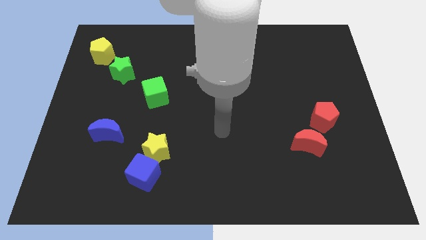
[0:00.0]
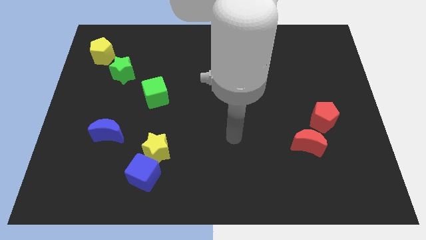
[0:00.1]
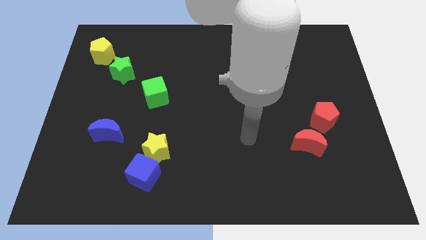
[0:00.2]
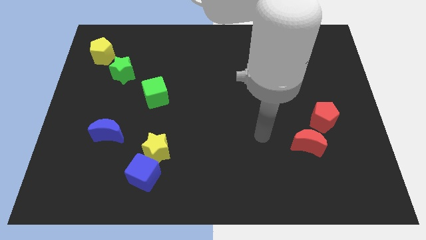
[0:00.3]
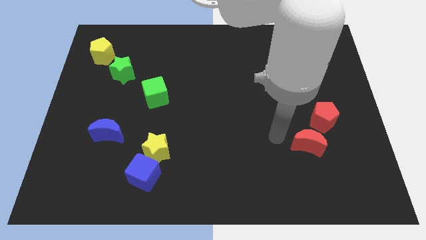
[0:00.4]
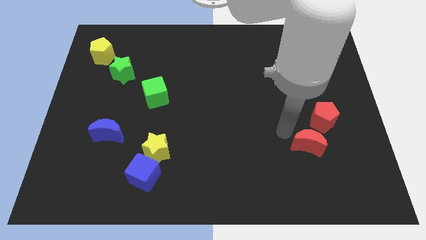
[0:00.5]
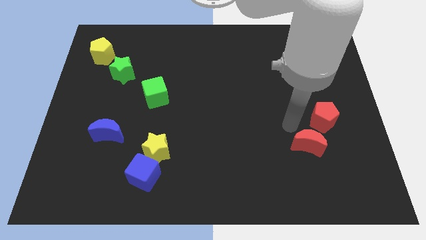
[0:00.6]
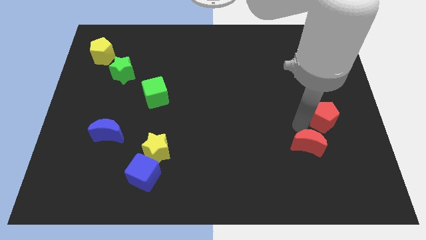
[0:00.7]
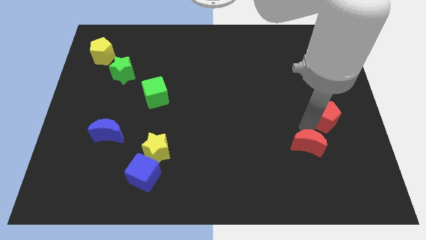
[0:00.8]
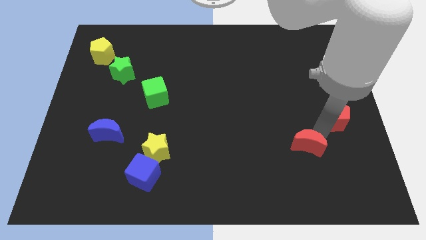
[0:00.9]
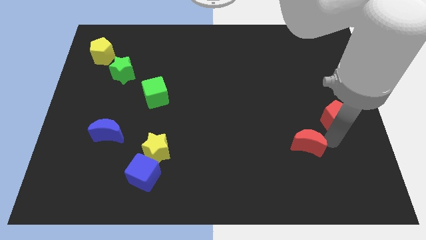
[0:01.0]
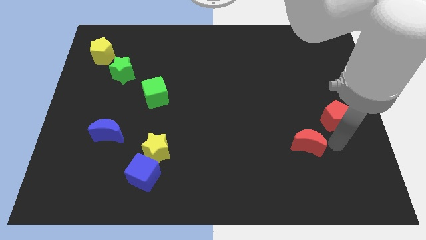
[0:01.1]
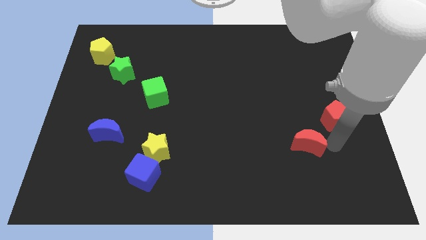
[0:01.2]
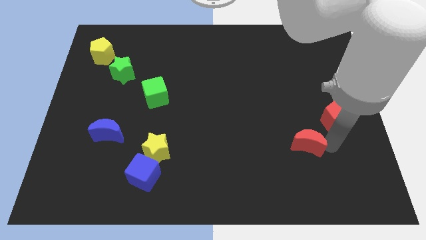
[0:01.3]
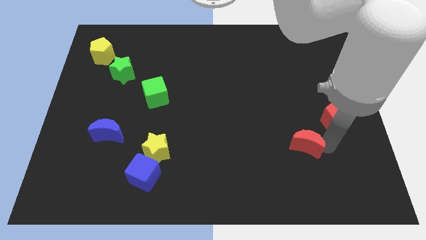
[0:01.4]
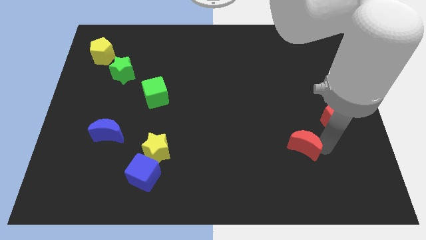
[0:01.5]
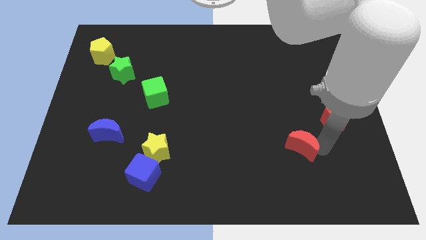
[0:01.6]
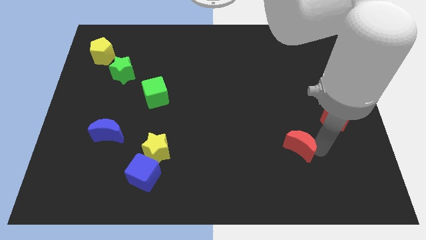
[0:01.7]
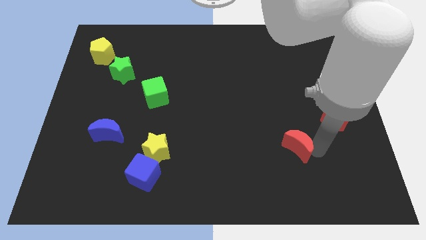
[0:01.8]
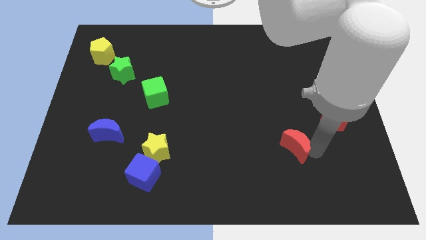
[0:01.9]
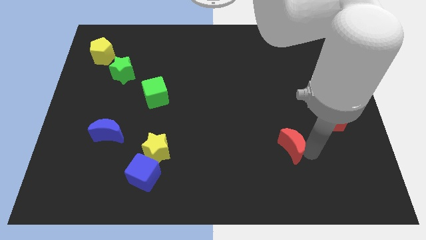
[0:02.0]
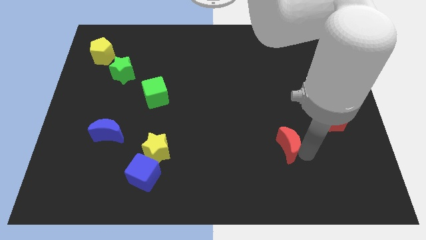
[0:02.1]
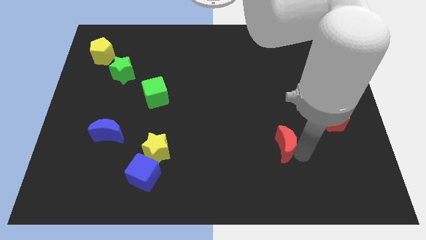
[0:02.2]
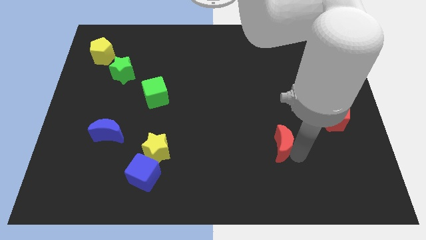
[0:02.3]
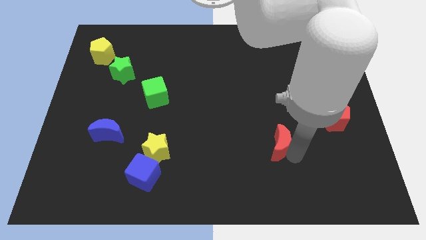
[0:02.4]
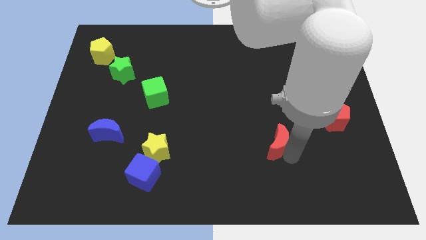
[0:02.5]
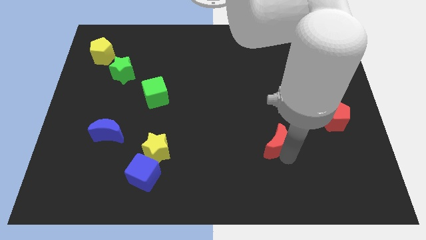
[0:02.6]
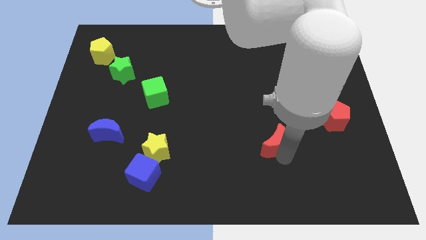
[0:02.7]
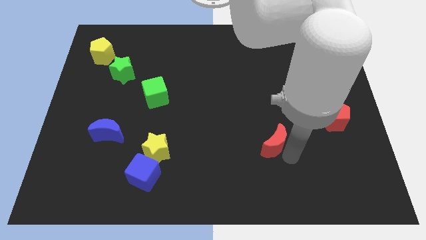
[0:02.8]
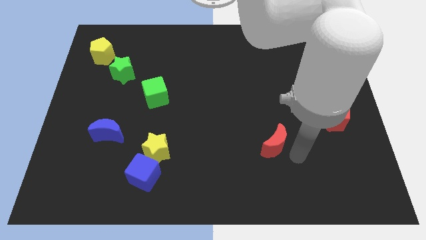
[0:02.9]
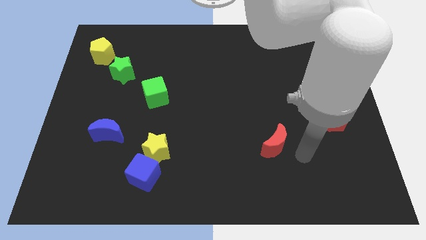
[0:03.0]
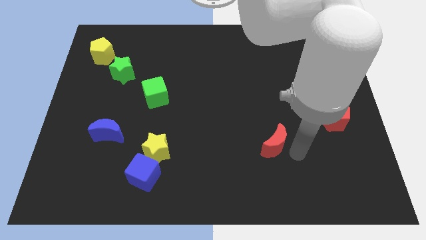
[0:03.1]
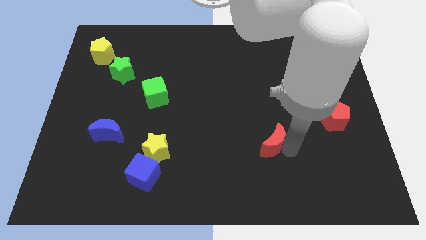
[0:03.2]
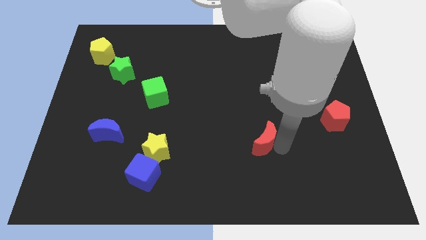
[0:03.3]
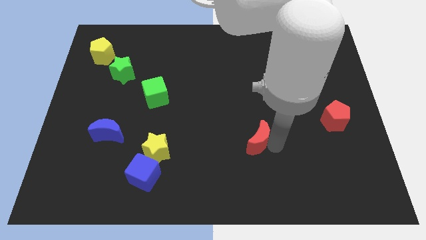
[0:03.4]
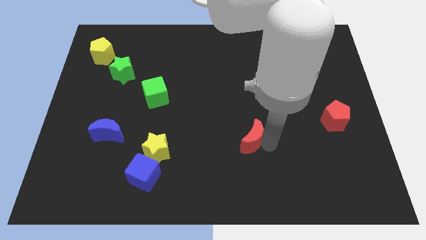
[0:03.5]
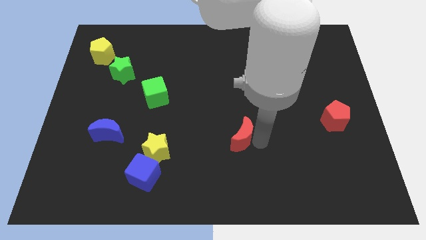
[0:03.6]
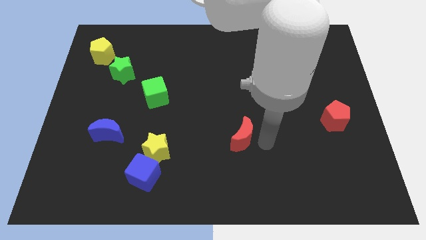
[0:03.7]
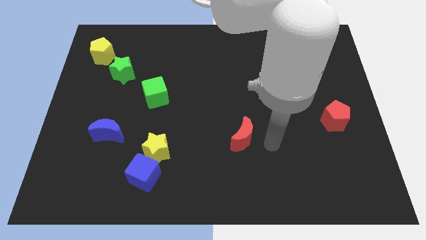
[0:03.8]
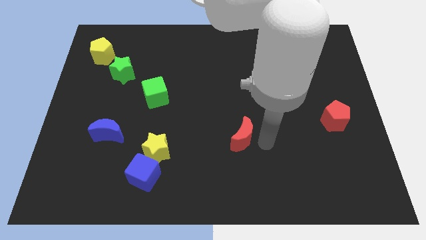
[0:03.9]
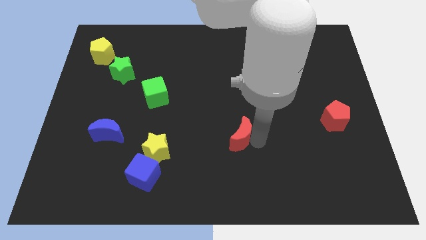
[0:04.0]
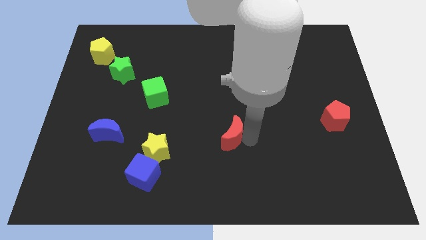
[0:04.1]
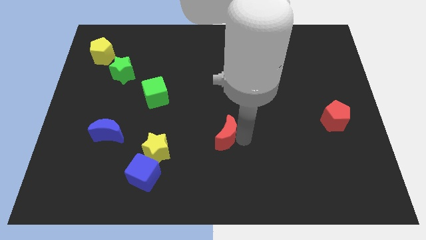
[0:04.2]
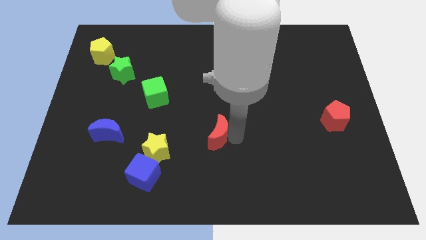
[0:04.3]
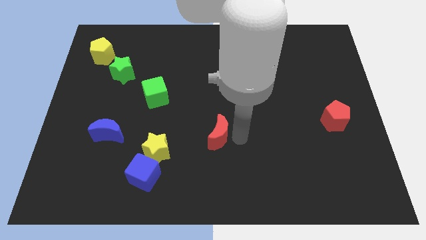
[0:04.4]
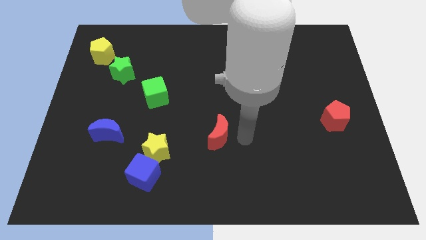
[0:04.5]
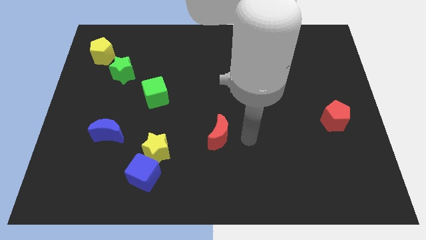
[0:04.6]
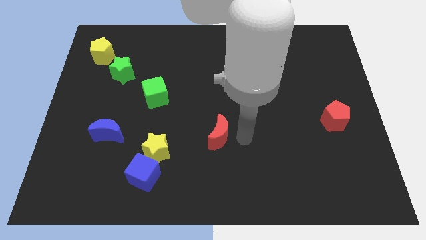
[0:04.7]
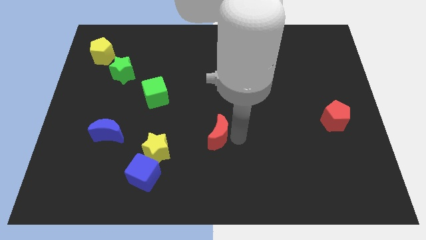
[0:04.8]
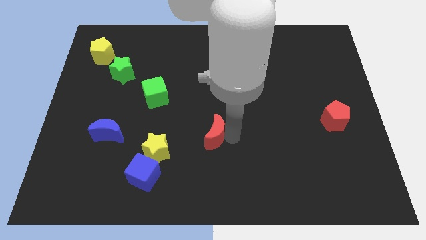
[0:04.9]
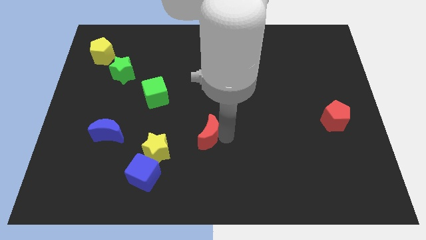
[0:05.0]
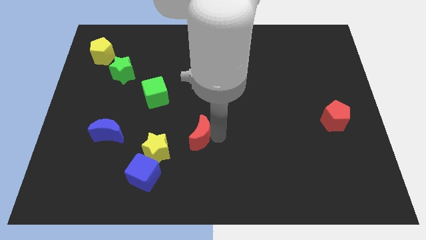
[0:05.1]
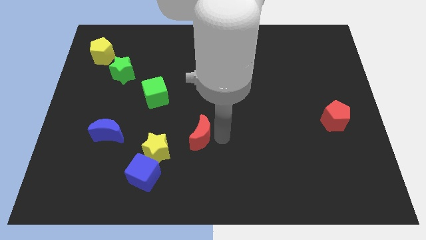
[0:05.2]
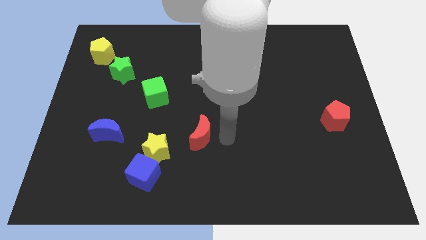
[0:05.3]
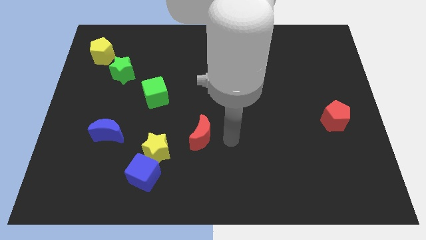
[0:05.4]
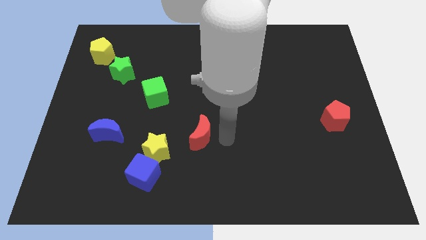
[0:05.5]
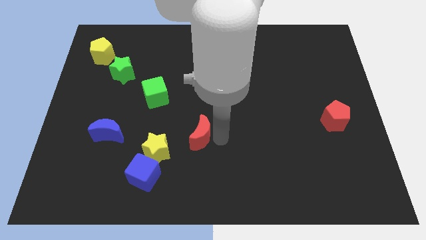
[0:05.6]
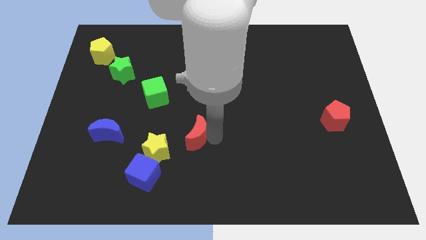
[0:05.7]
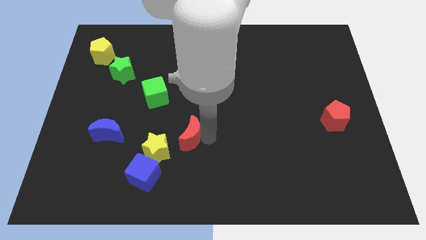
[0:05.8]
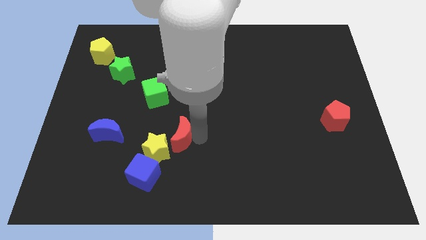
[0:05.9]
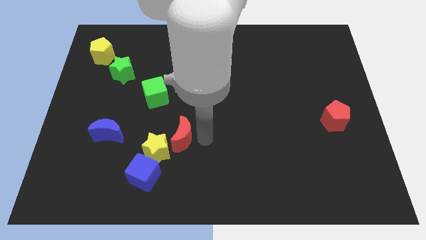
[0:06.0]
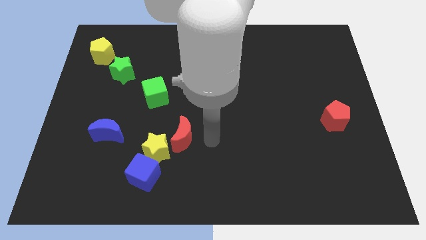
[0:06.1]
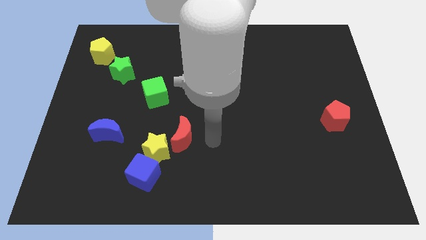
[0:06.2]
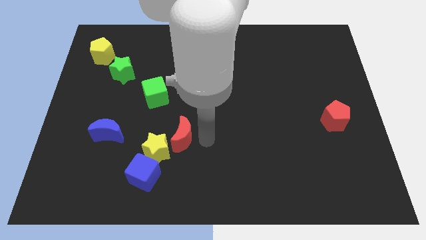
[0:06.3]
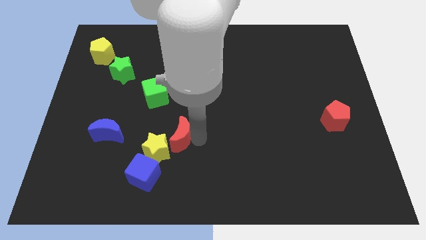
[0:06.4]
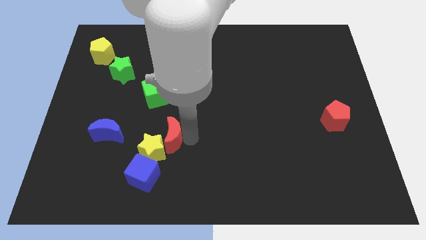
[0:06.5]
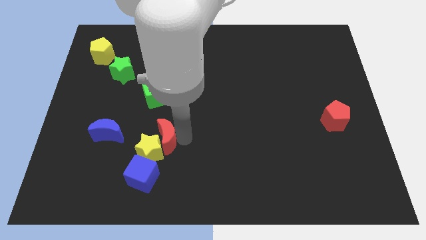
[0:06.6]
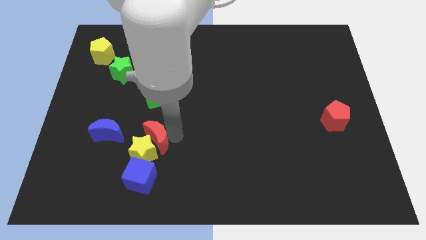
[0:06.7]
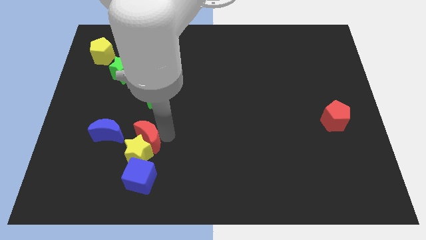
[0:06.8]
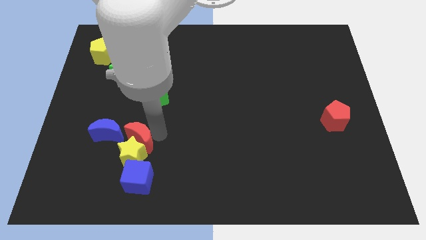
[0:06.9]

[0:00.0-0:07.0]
slide the red moon diagonally down and to the right of the blue moon

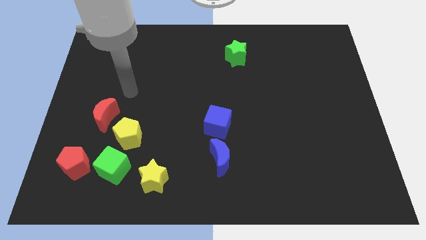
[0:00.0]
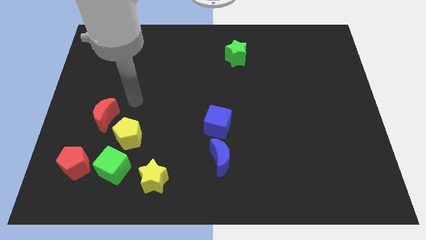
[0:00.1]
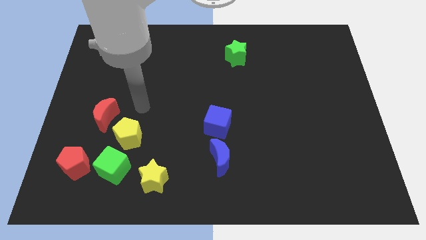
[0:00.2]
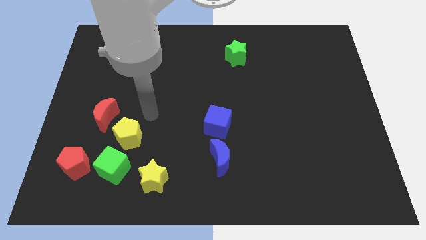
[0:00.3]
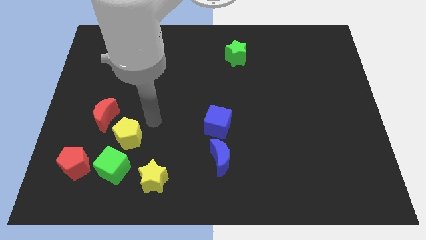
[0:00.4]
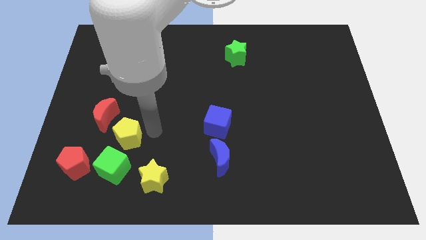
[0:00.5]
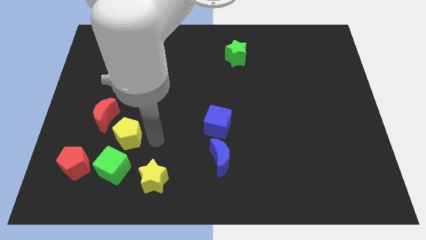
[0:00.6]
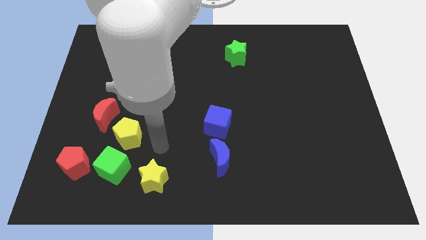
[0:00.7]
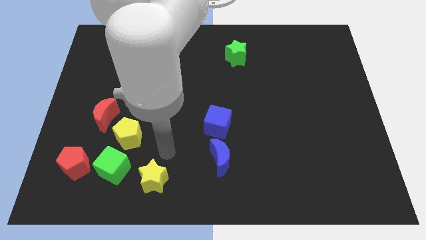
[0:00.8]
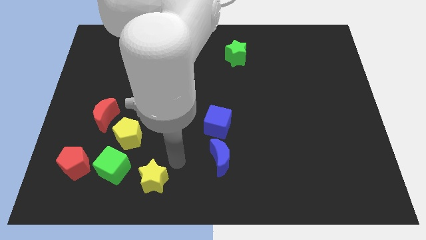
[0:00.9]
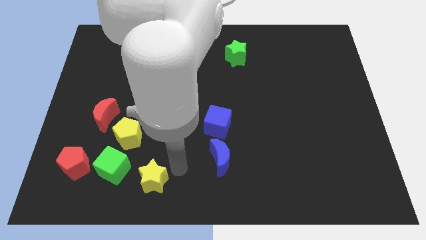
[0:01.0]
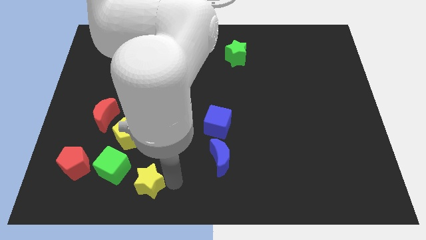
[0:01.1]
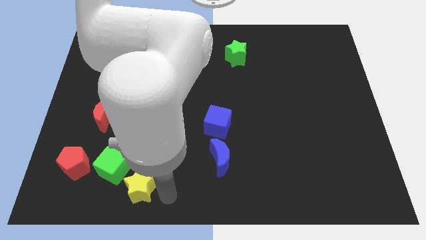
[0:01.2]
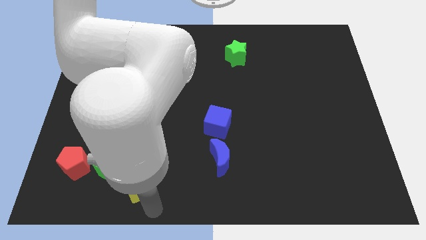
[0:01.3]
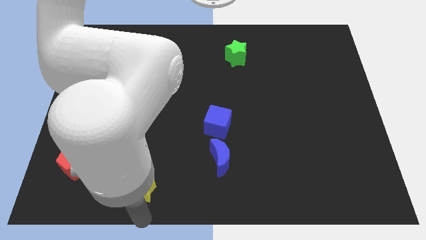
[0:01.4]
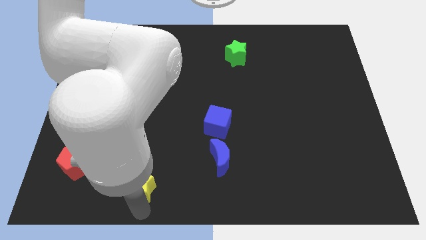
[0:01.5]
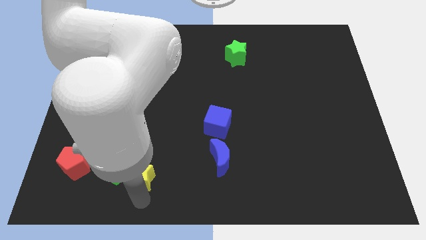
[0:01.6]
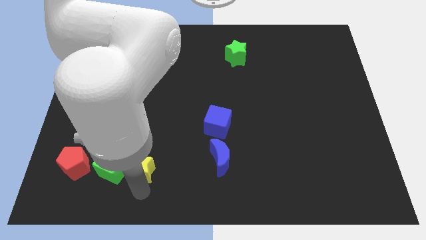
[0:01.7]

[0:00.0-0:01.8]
move the yellow star to the top right of the green cube
